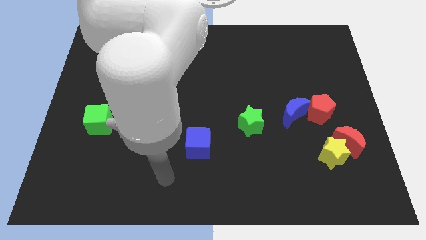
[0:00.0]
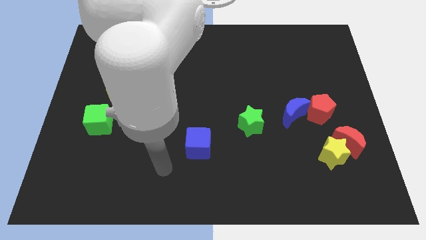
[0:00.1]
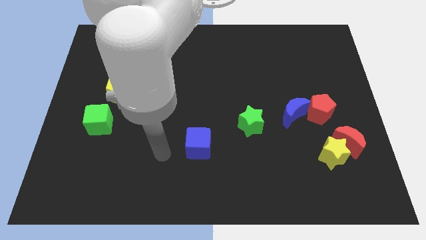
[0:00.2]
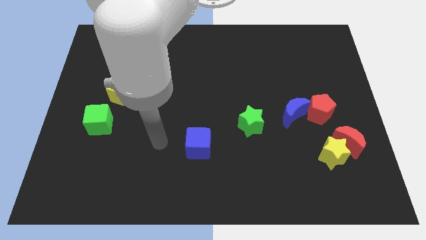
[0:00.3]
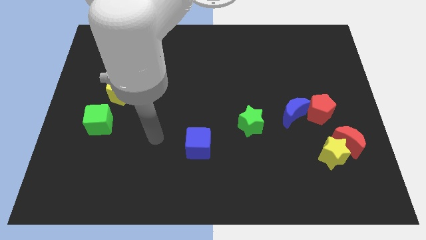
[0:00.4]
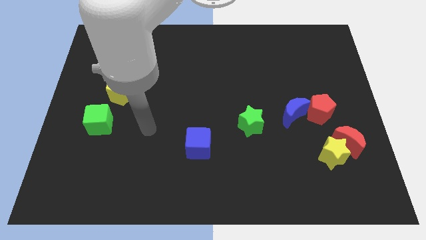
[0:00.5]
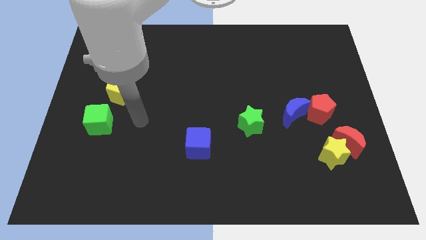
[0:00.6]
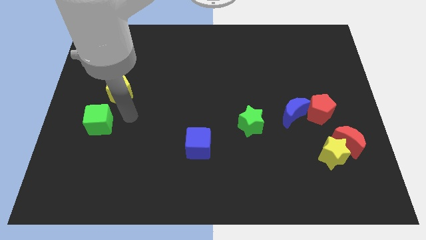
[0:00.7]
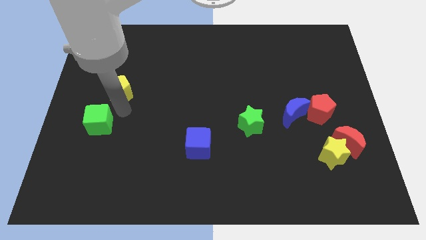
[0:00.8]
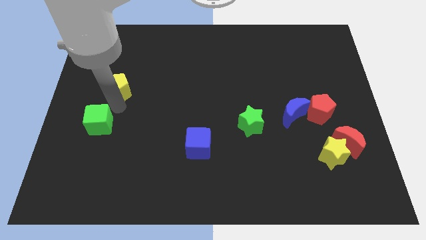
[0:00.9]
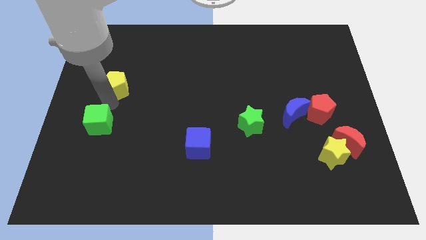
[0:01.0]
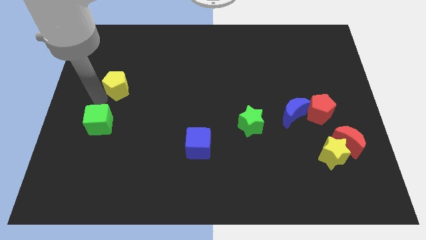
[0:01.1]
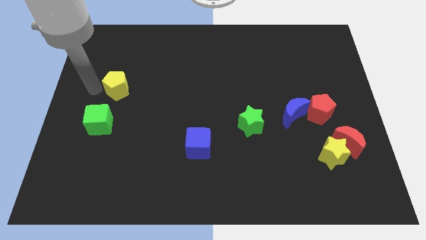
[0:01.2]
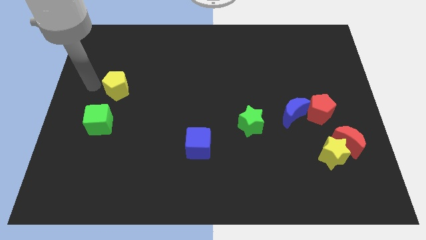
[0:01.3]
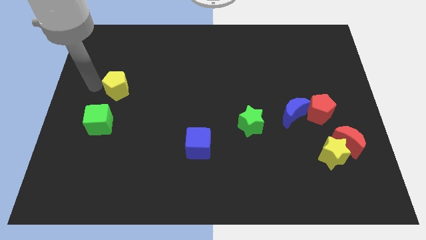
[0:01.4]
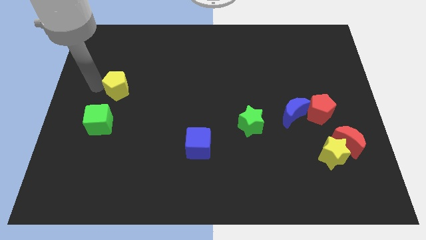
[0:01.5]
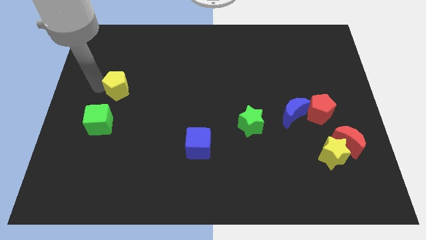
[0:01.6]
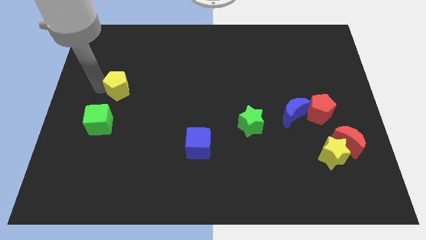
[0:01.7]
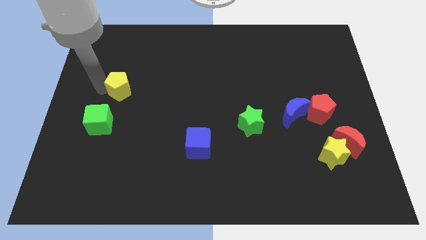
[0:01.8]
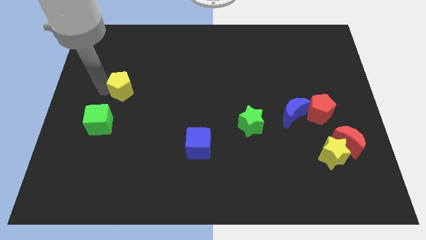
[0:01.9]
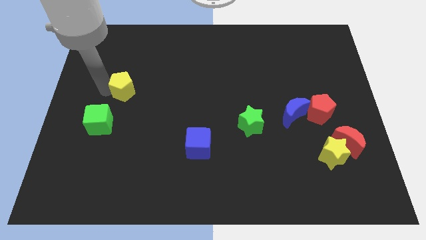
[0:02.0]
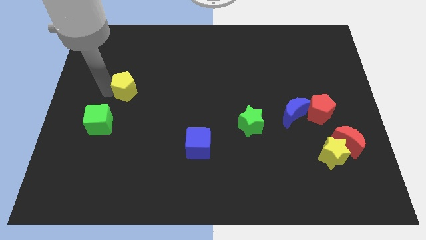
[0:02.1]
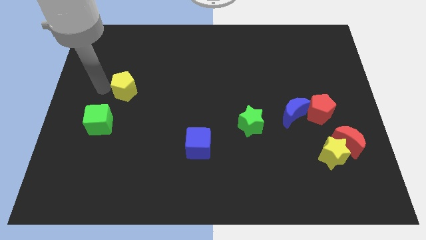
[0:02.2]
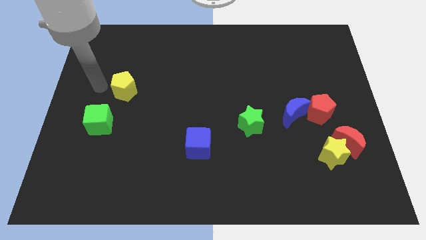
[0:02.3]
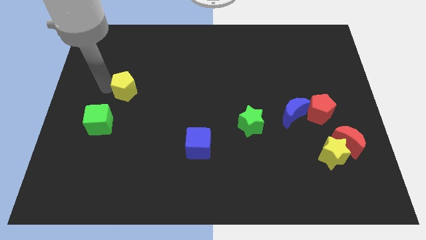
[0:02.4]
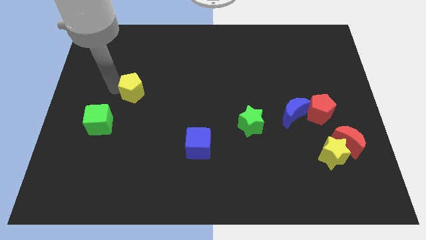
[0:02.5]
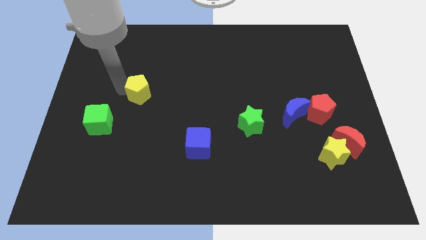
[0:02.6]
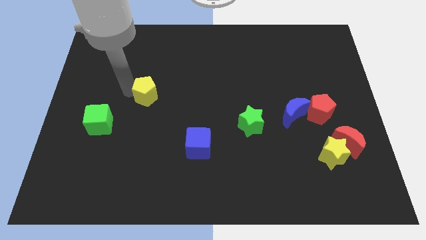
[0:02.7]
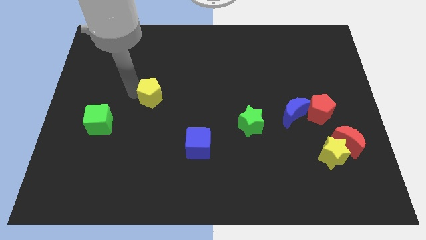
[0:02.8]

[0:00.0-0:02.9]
slightly push the yellow pentagon right

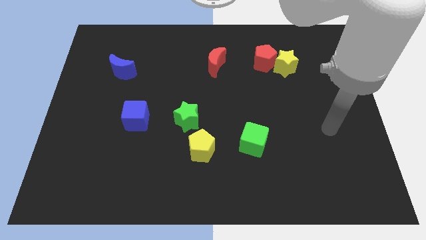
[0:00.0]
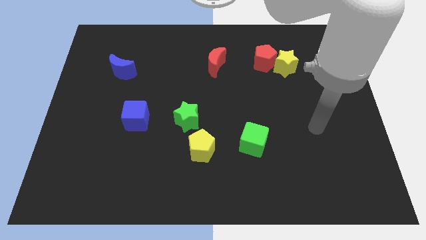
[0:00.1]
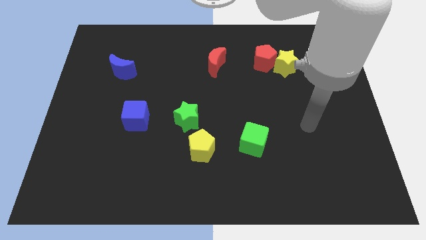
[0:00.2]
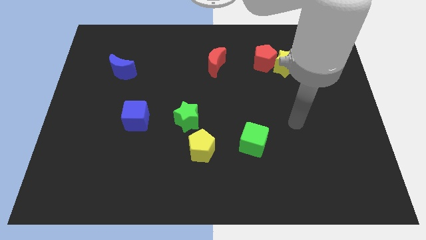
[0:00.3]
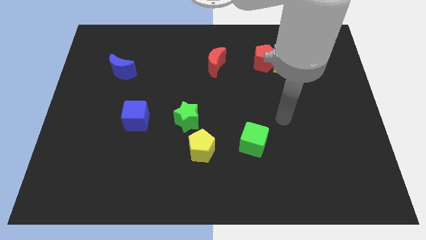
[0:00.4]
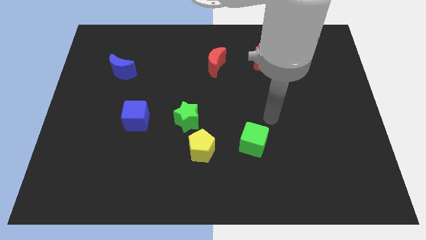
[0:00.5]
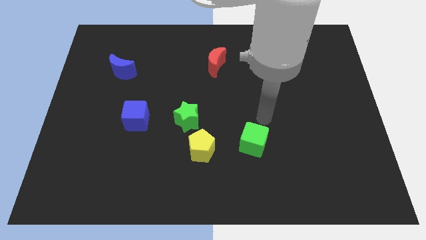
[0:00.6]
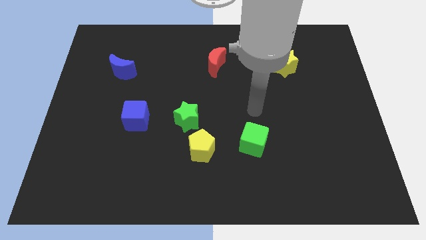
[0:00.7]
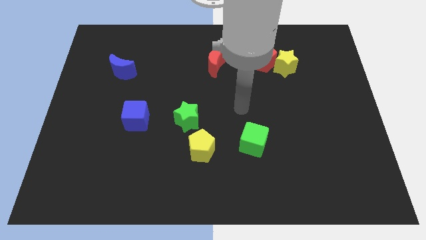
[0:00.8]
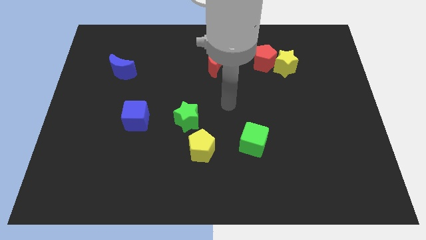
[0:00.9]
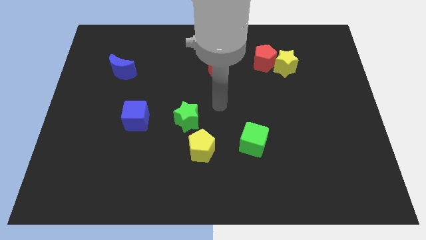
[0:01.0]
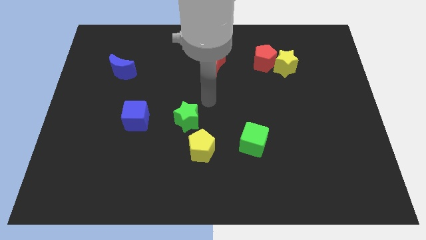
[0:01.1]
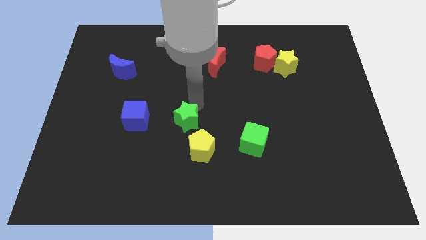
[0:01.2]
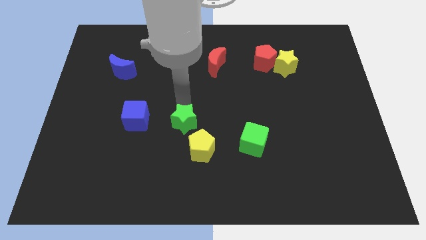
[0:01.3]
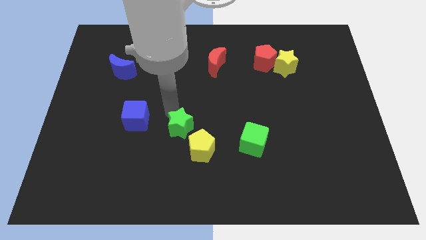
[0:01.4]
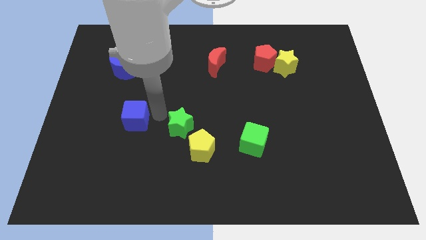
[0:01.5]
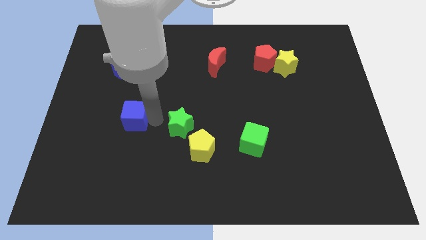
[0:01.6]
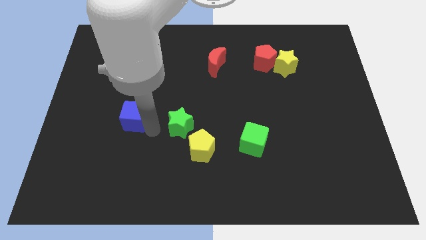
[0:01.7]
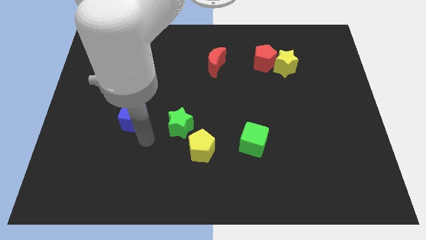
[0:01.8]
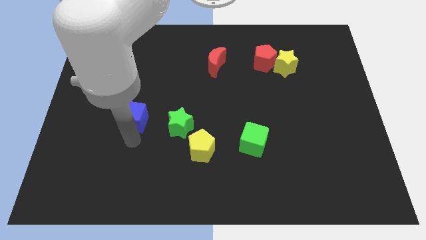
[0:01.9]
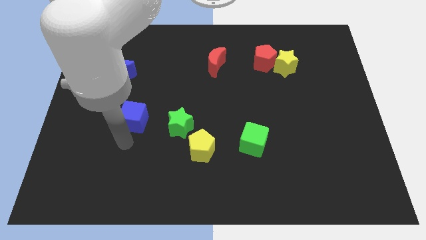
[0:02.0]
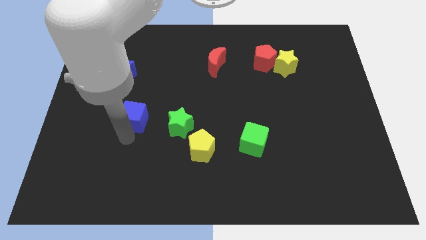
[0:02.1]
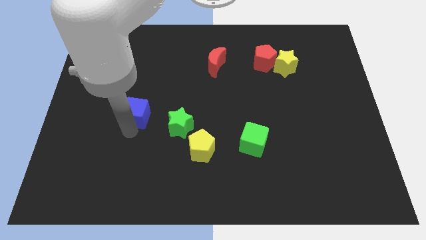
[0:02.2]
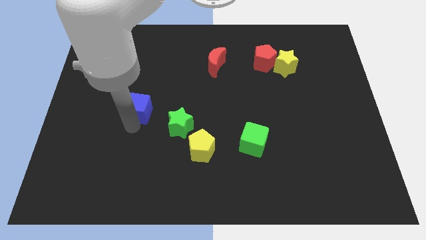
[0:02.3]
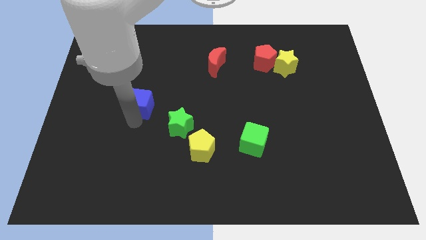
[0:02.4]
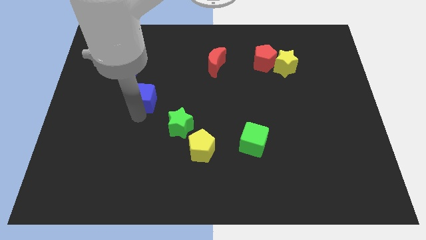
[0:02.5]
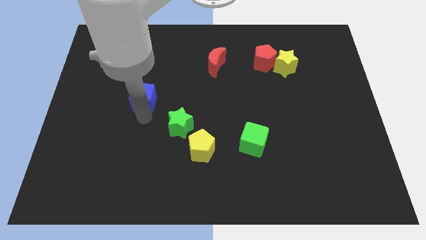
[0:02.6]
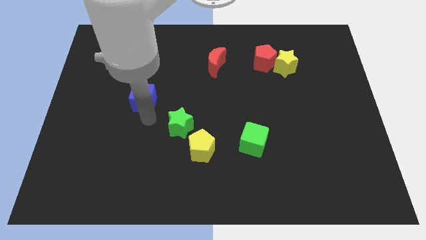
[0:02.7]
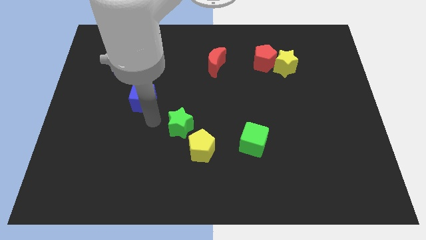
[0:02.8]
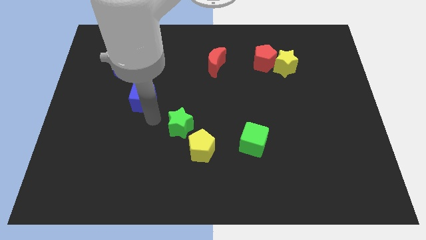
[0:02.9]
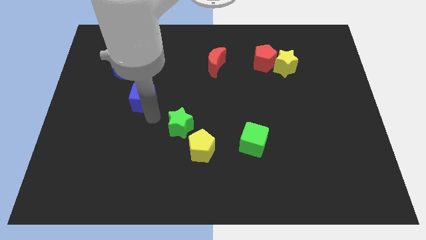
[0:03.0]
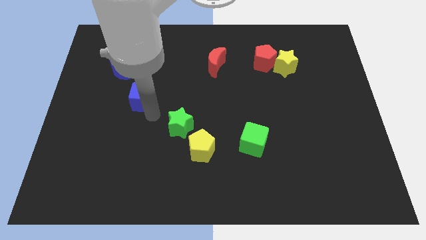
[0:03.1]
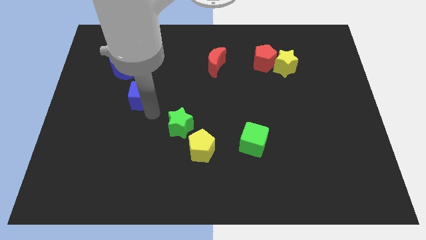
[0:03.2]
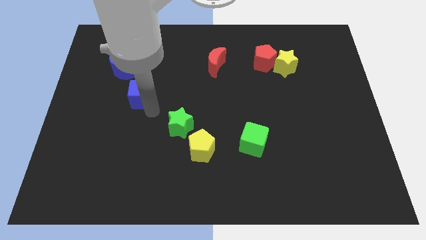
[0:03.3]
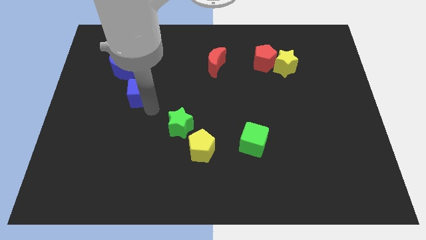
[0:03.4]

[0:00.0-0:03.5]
move the blue cube up somewhat

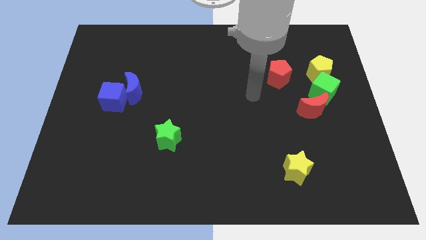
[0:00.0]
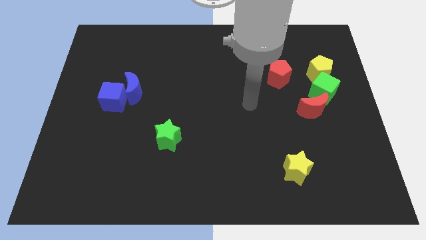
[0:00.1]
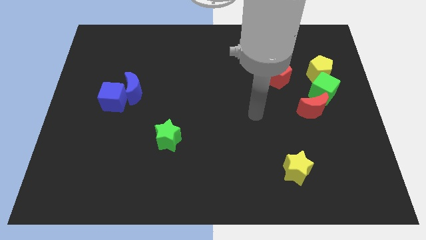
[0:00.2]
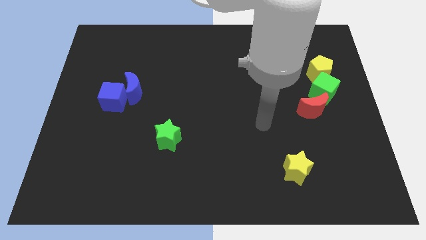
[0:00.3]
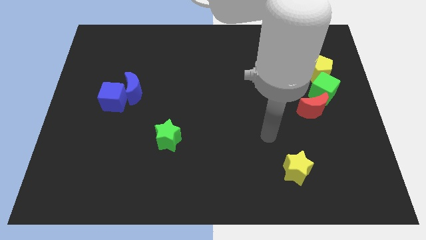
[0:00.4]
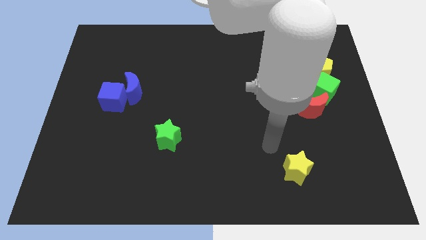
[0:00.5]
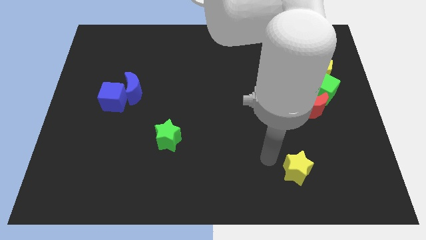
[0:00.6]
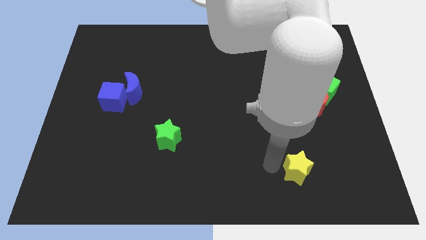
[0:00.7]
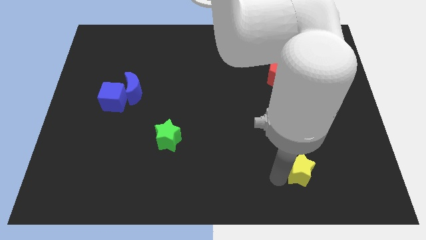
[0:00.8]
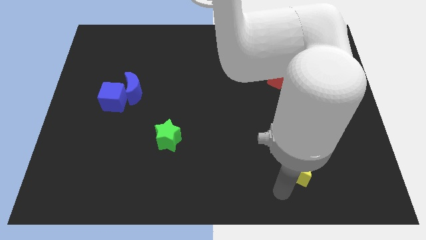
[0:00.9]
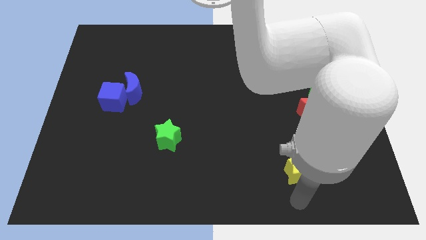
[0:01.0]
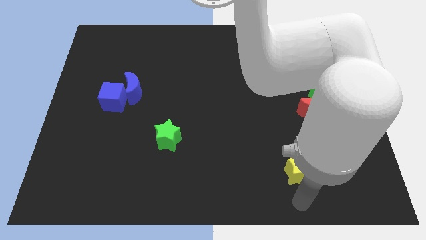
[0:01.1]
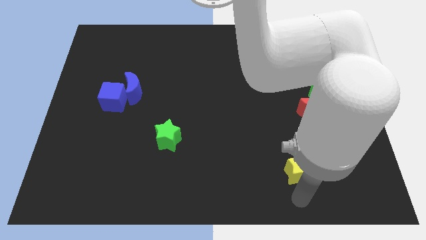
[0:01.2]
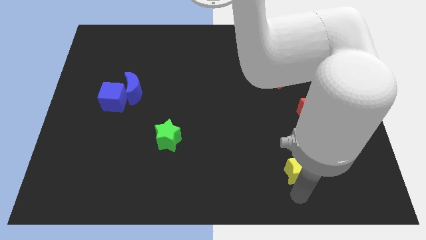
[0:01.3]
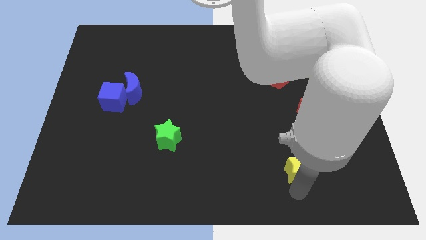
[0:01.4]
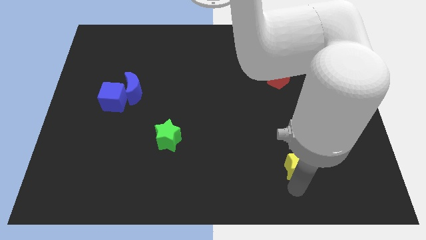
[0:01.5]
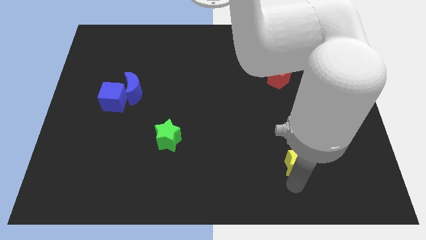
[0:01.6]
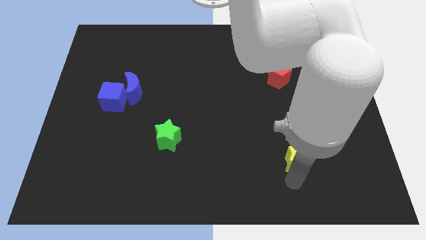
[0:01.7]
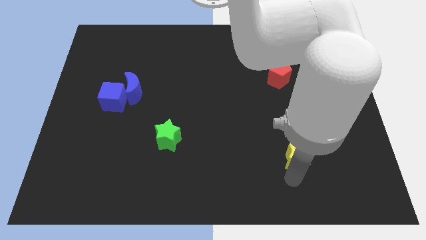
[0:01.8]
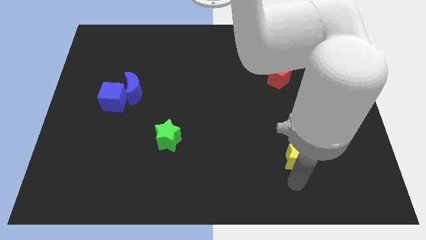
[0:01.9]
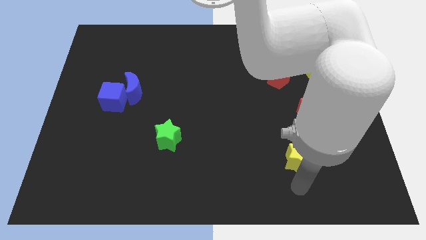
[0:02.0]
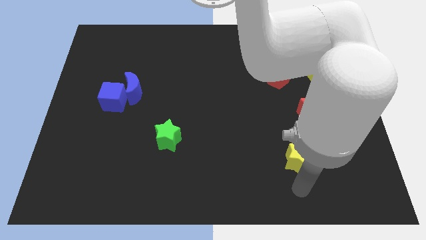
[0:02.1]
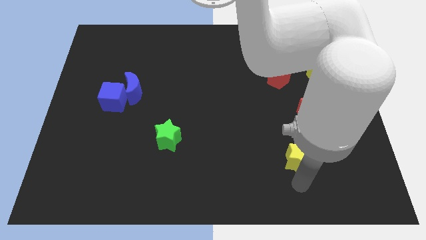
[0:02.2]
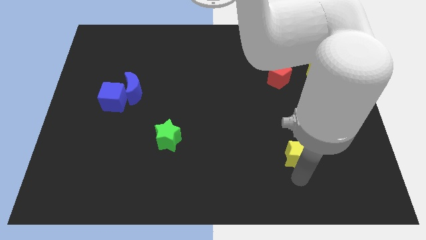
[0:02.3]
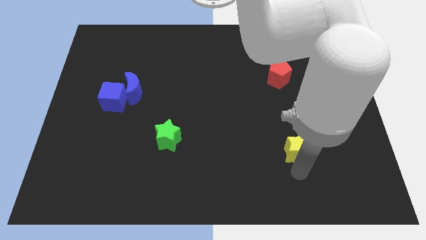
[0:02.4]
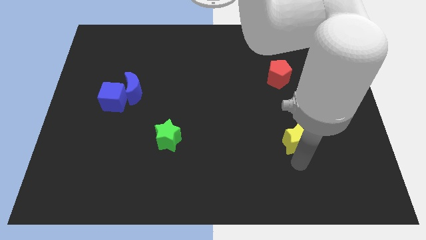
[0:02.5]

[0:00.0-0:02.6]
push the yellow star a little bit up
